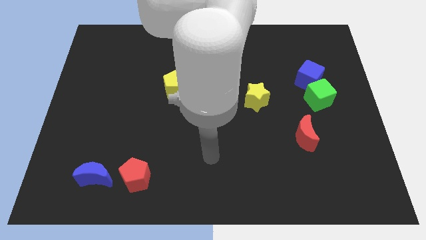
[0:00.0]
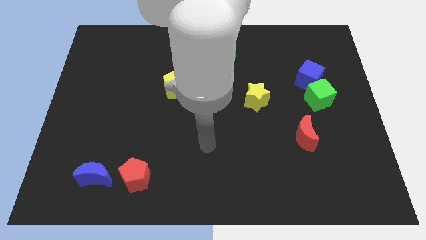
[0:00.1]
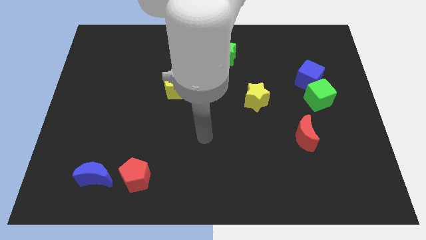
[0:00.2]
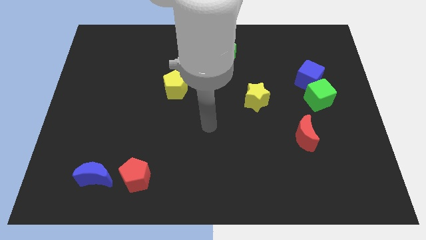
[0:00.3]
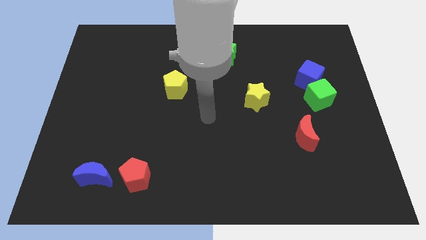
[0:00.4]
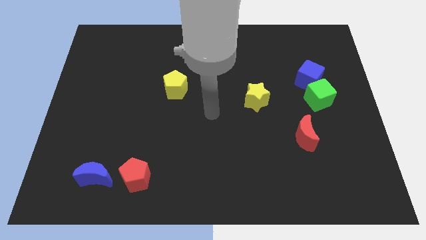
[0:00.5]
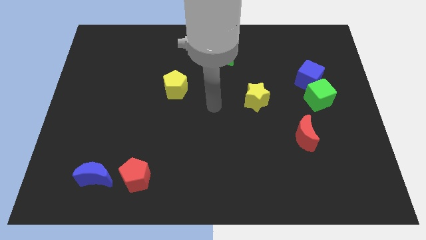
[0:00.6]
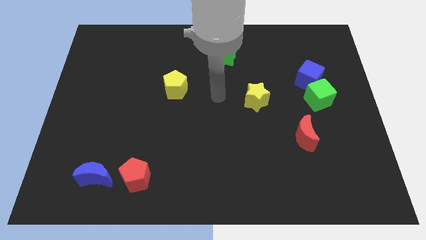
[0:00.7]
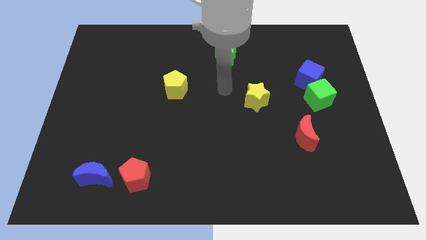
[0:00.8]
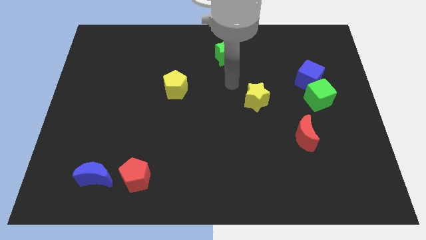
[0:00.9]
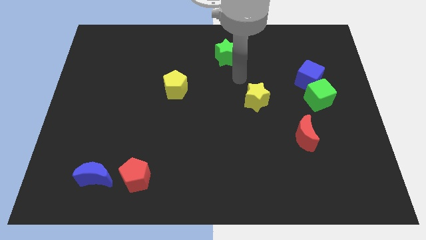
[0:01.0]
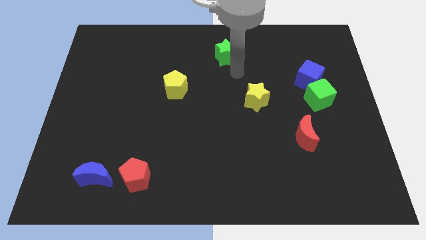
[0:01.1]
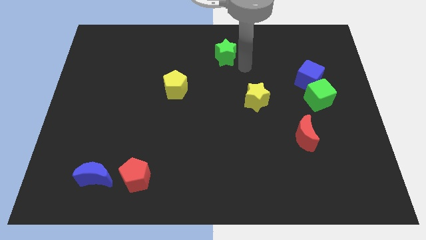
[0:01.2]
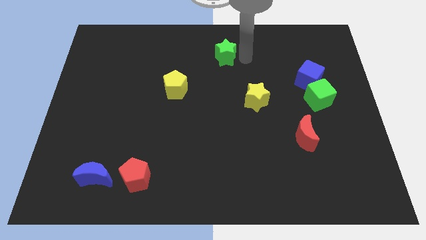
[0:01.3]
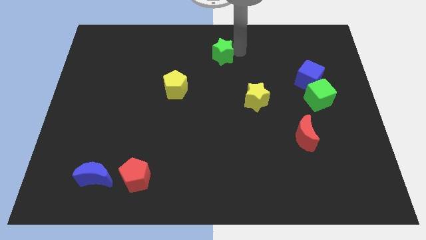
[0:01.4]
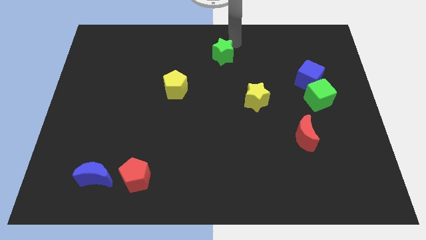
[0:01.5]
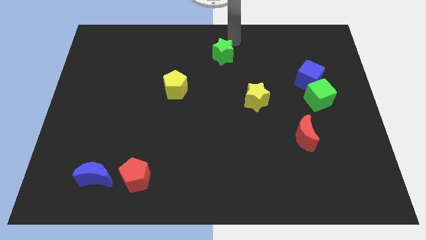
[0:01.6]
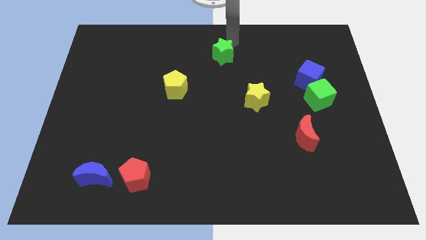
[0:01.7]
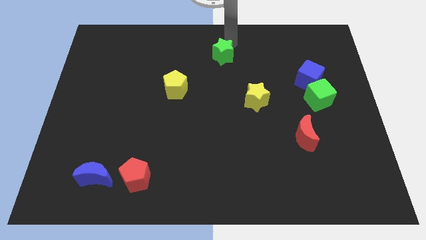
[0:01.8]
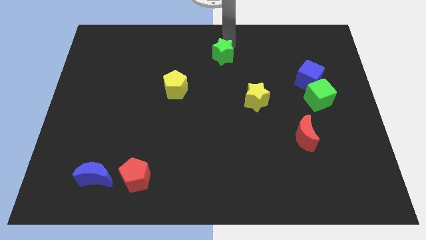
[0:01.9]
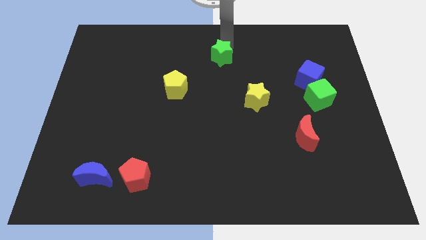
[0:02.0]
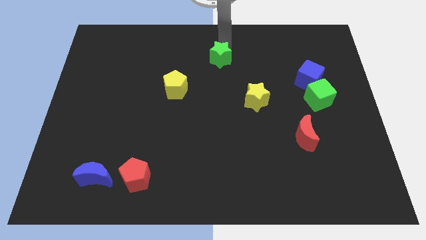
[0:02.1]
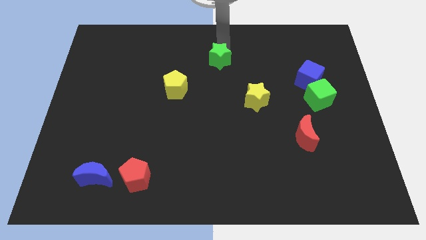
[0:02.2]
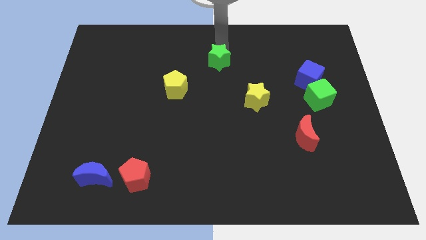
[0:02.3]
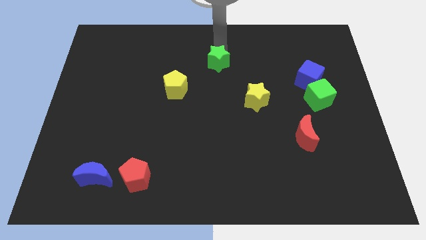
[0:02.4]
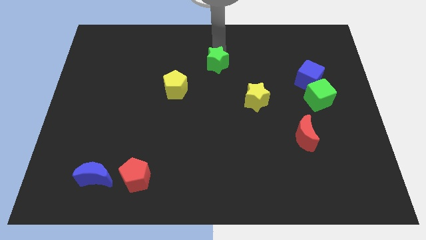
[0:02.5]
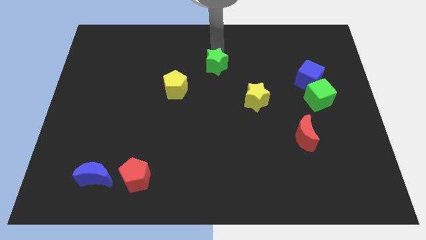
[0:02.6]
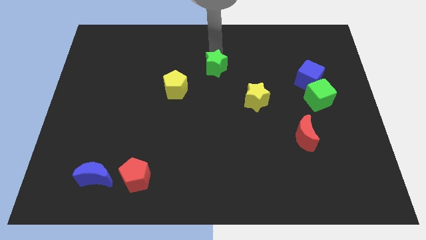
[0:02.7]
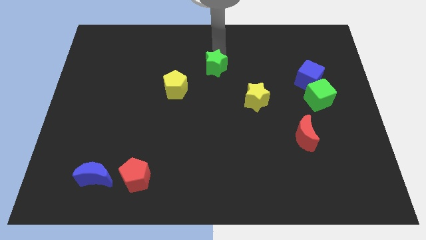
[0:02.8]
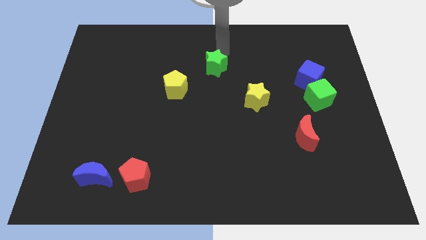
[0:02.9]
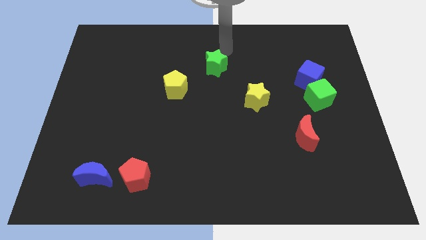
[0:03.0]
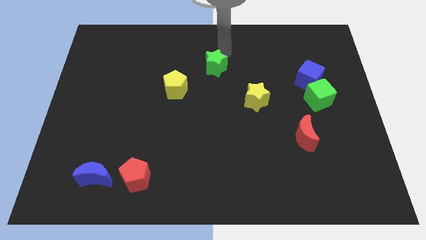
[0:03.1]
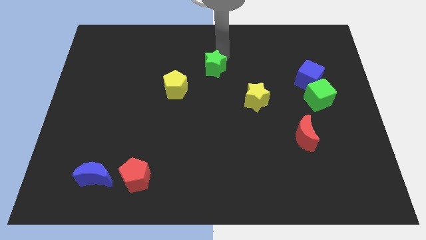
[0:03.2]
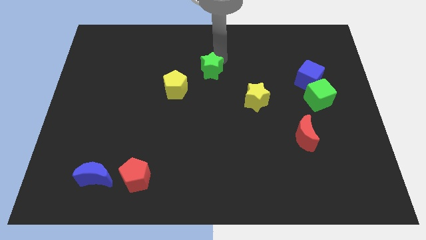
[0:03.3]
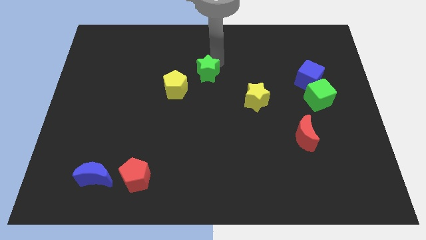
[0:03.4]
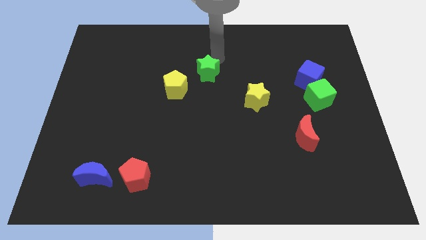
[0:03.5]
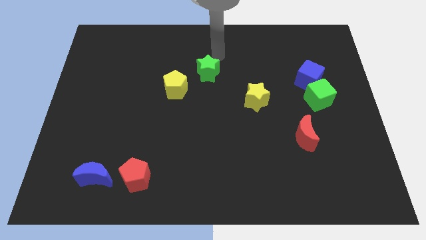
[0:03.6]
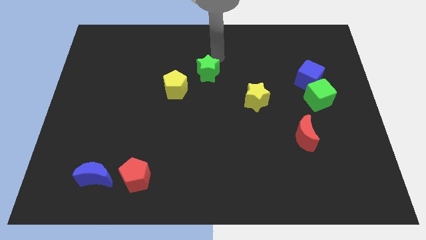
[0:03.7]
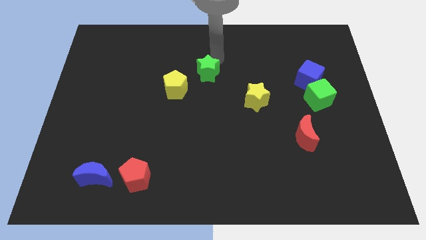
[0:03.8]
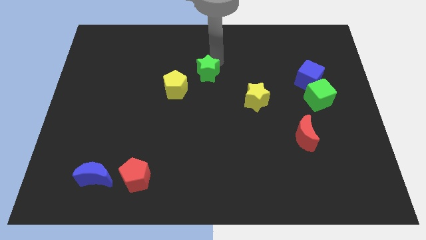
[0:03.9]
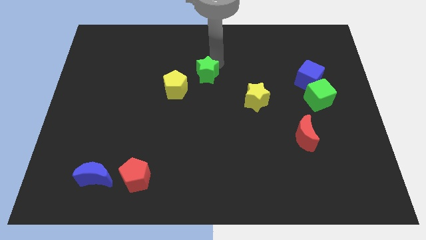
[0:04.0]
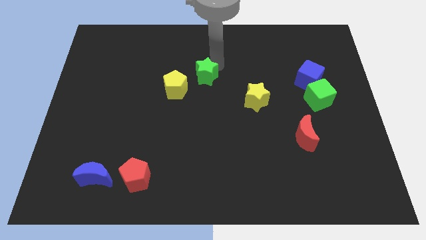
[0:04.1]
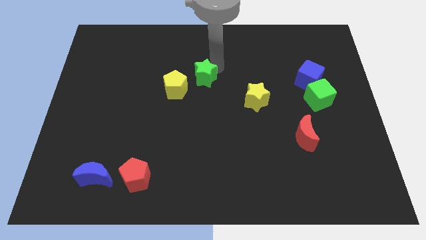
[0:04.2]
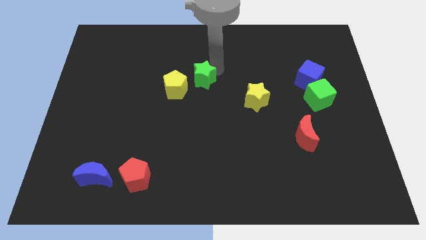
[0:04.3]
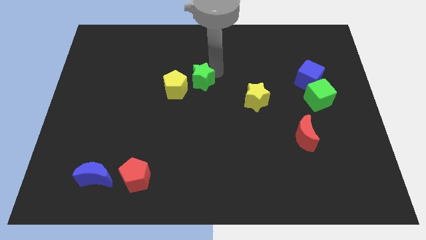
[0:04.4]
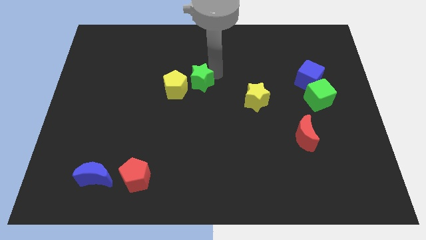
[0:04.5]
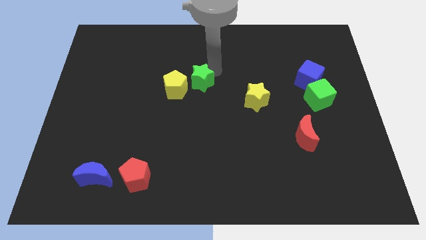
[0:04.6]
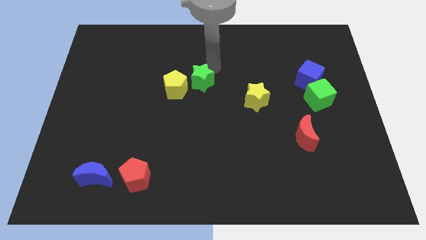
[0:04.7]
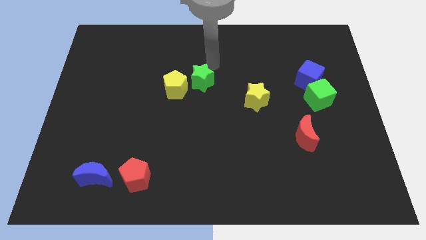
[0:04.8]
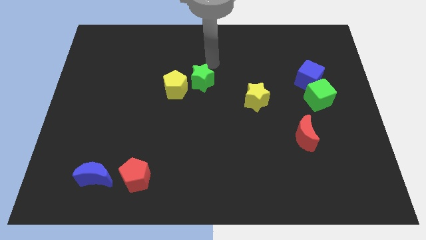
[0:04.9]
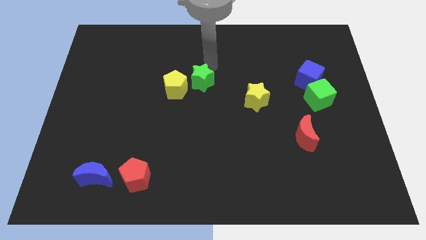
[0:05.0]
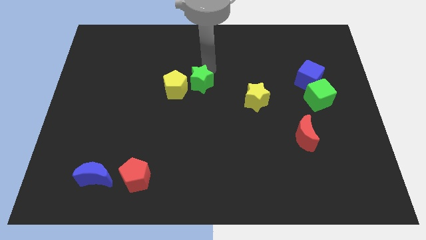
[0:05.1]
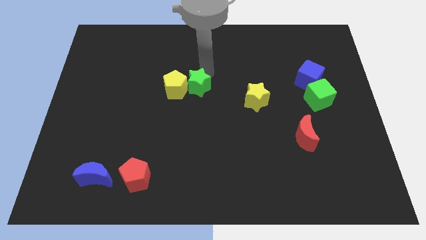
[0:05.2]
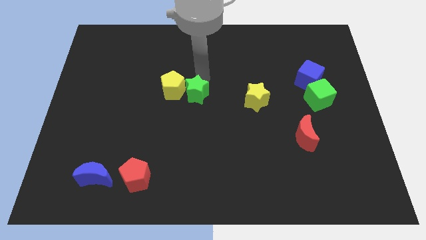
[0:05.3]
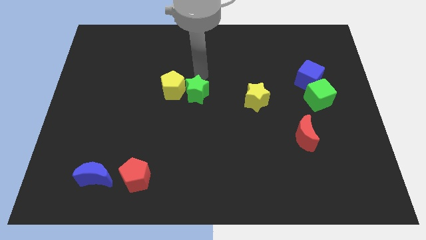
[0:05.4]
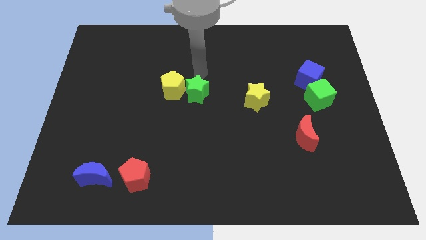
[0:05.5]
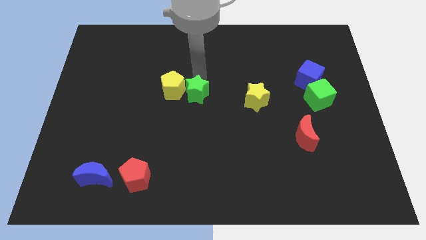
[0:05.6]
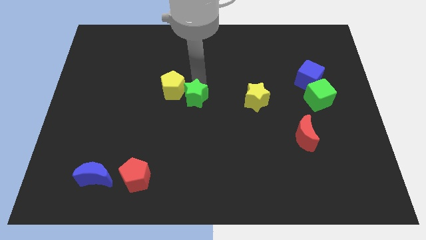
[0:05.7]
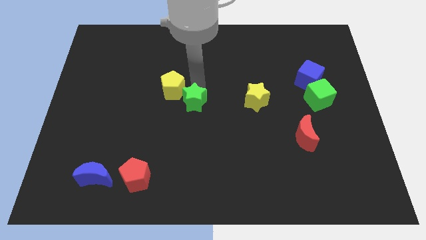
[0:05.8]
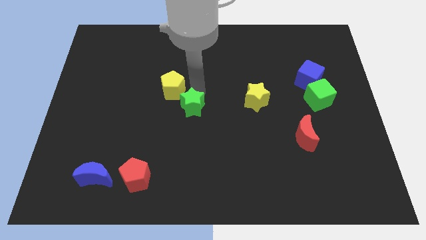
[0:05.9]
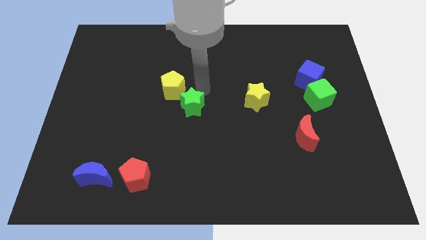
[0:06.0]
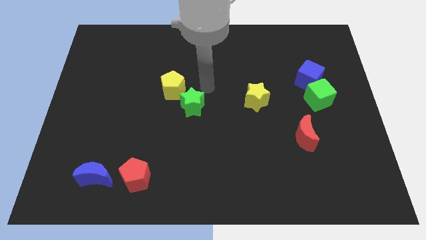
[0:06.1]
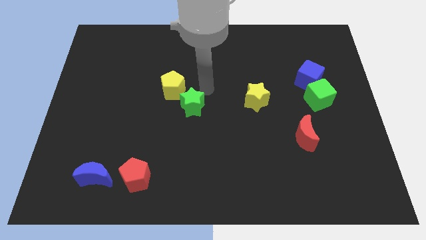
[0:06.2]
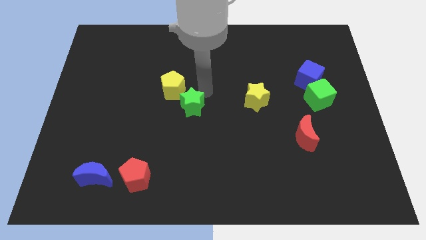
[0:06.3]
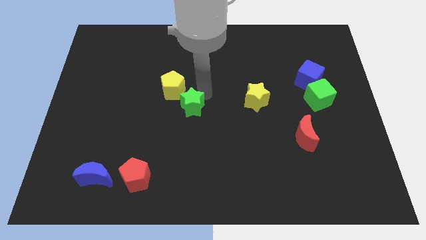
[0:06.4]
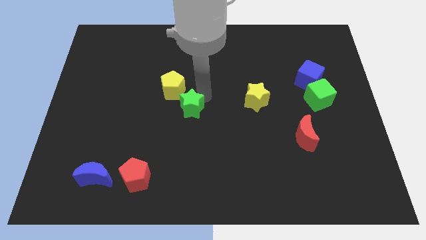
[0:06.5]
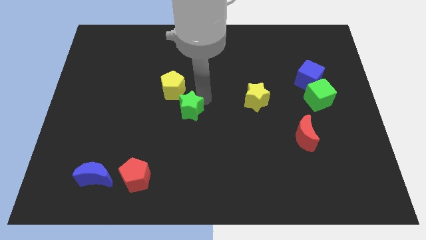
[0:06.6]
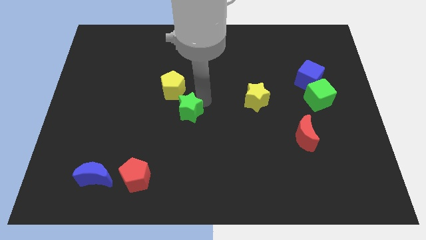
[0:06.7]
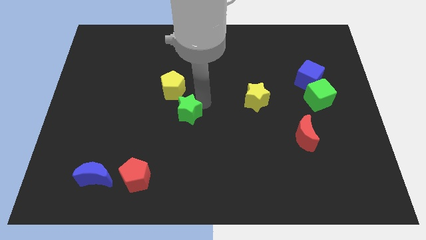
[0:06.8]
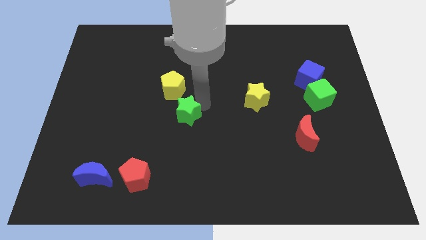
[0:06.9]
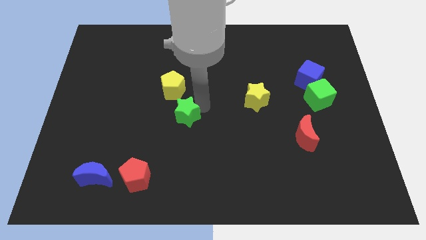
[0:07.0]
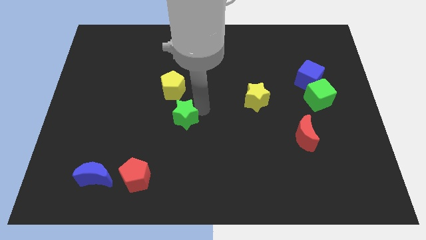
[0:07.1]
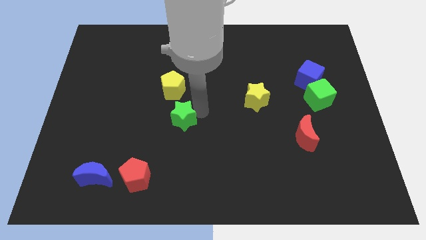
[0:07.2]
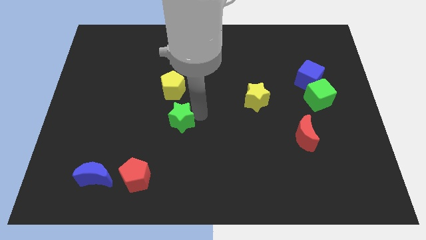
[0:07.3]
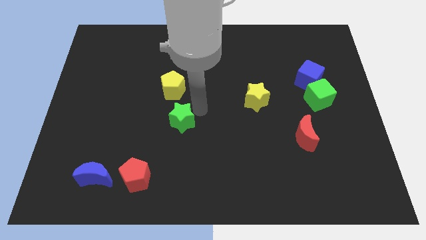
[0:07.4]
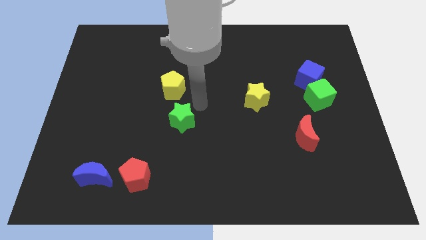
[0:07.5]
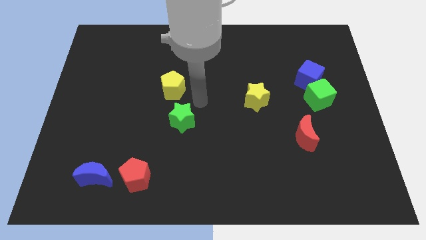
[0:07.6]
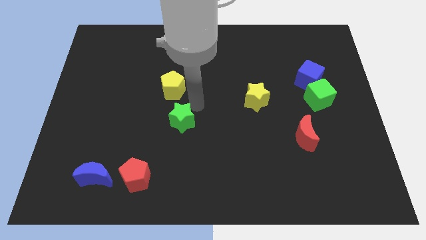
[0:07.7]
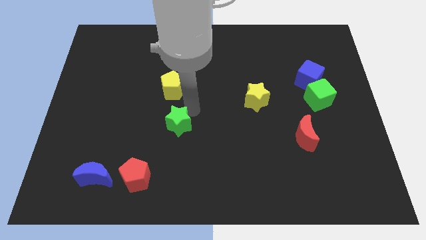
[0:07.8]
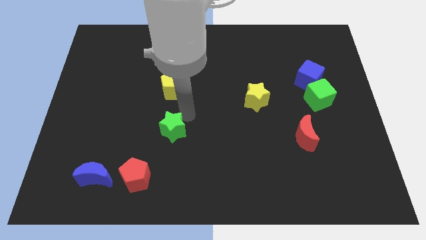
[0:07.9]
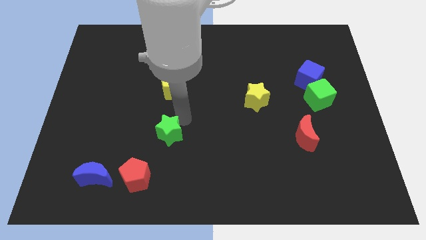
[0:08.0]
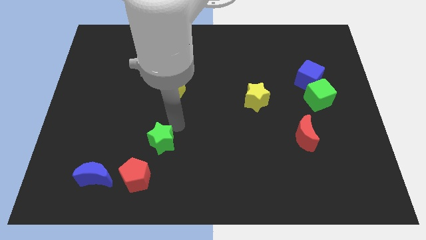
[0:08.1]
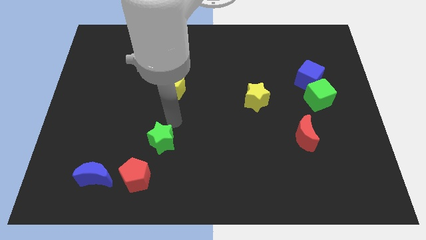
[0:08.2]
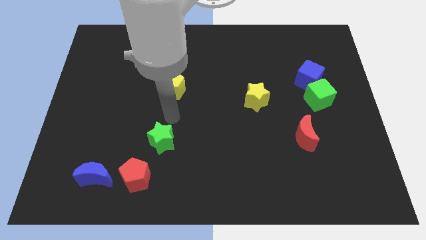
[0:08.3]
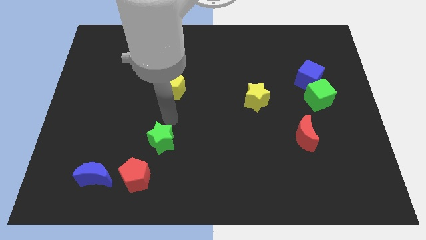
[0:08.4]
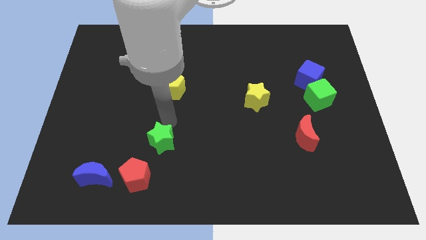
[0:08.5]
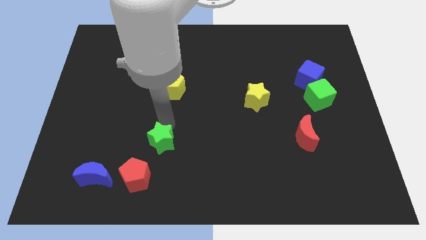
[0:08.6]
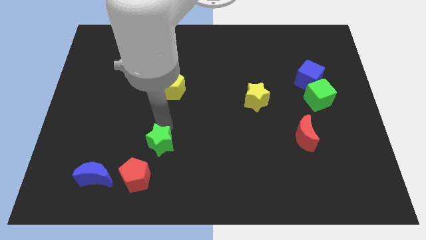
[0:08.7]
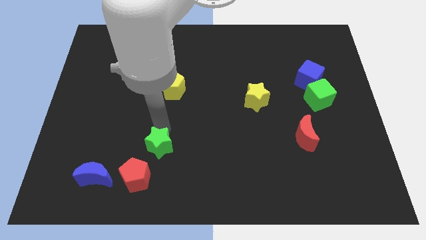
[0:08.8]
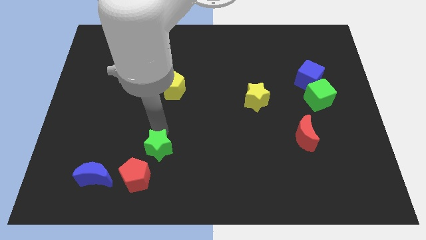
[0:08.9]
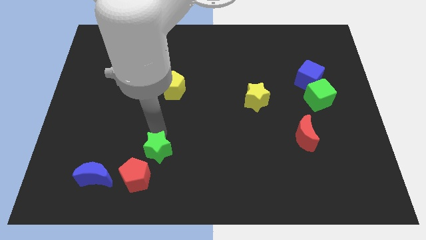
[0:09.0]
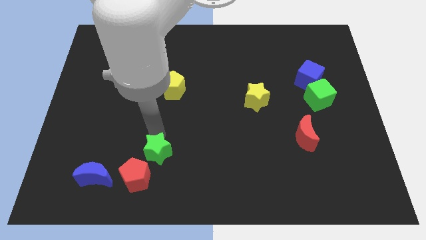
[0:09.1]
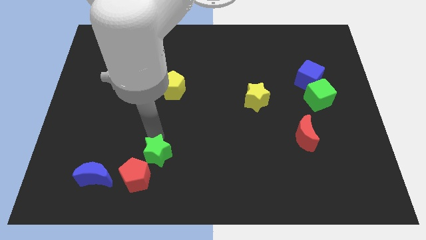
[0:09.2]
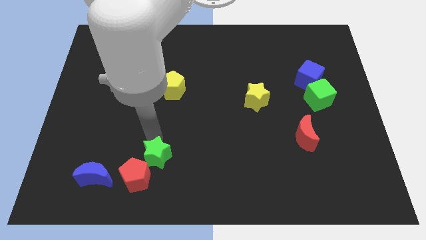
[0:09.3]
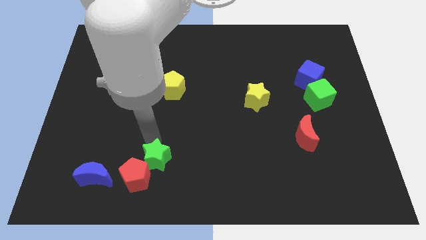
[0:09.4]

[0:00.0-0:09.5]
put the green star close to the red pentagon
